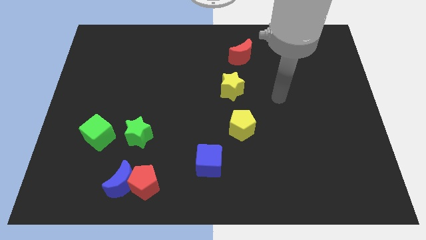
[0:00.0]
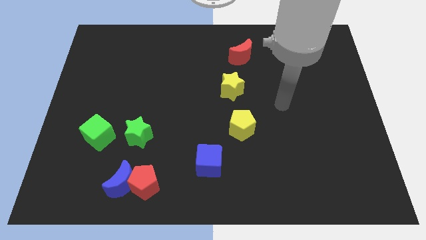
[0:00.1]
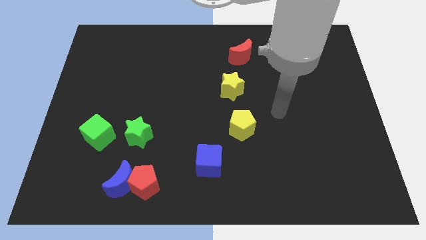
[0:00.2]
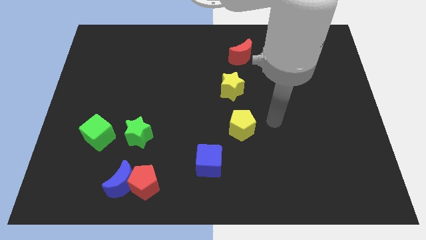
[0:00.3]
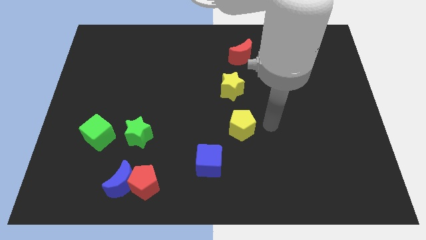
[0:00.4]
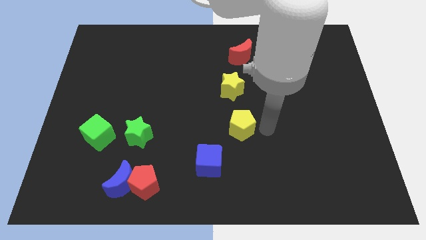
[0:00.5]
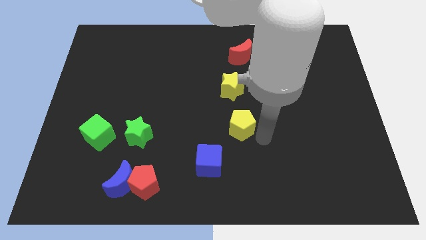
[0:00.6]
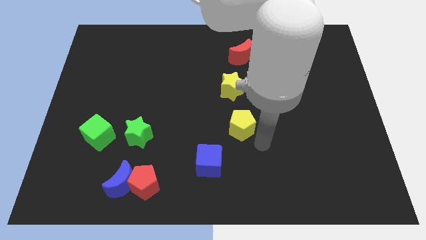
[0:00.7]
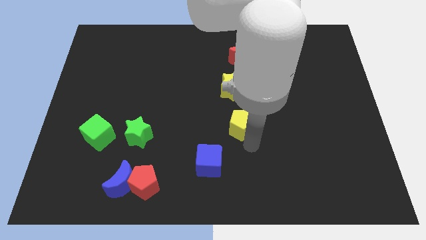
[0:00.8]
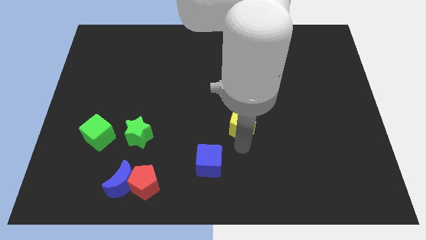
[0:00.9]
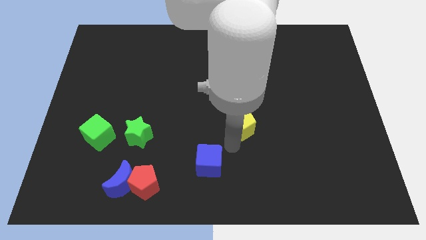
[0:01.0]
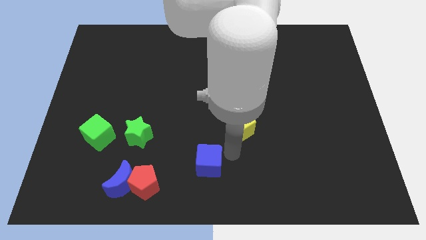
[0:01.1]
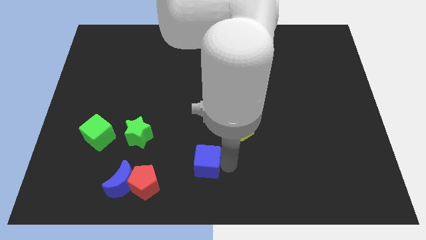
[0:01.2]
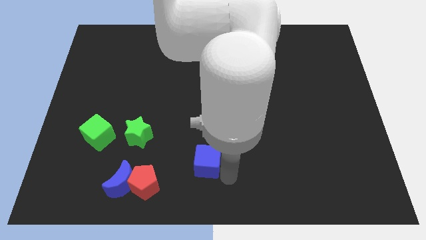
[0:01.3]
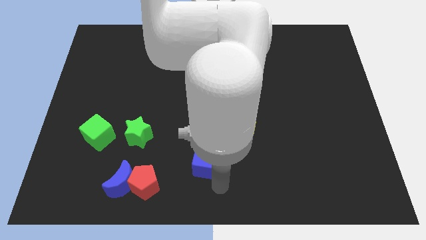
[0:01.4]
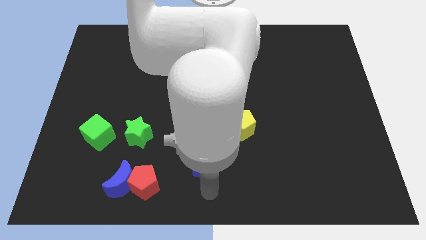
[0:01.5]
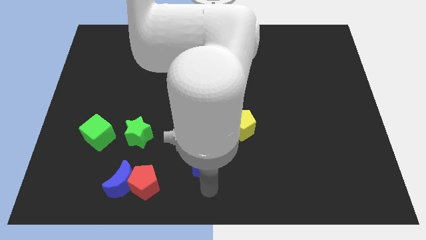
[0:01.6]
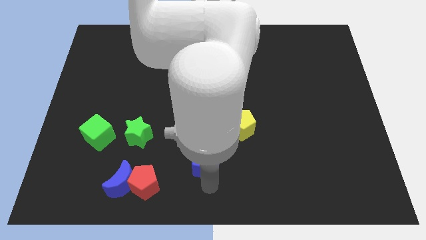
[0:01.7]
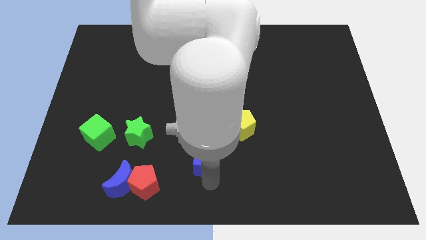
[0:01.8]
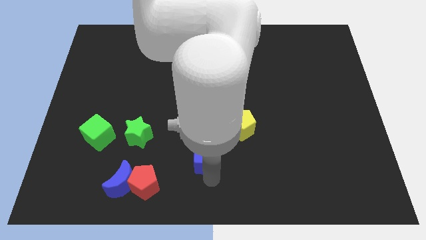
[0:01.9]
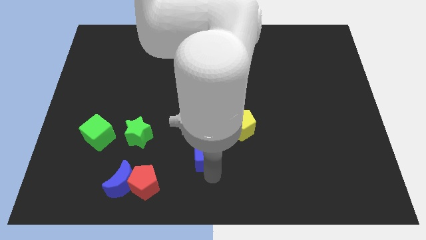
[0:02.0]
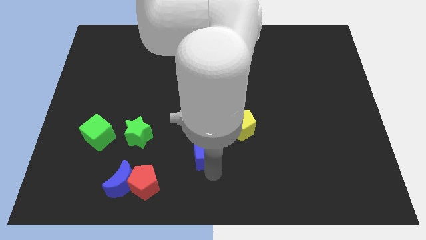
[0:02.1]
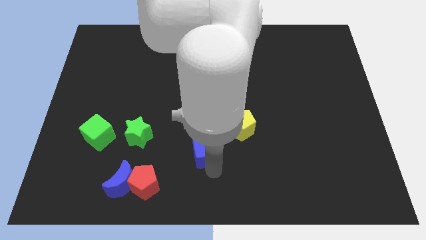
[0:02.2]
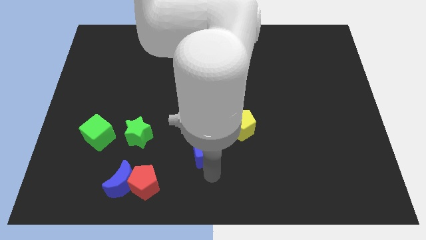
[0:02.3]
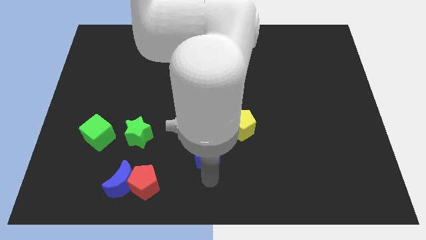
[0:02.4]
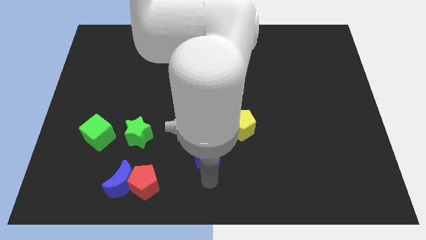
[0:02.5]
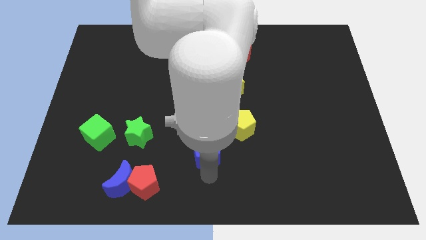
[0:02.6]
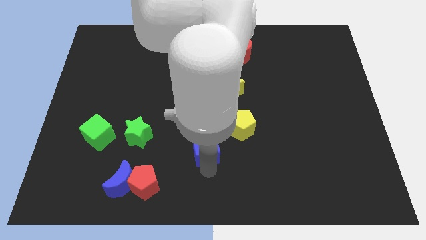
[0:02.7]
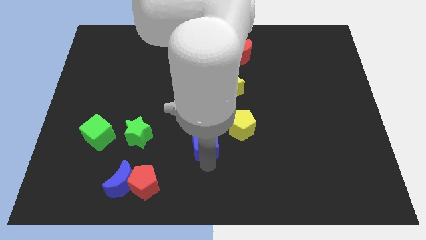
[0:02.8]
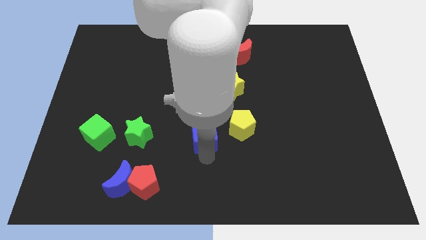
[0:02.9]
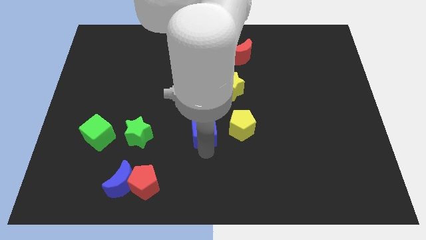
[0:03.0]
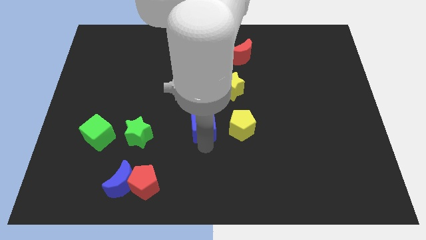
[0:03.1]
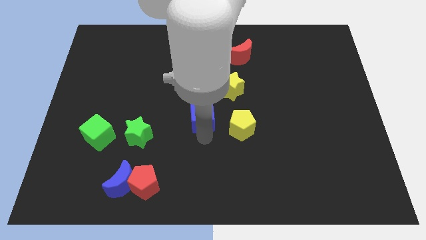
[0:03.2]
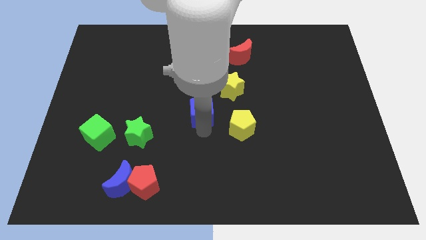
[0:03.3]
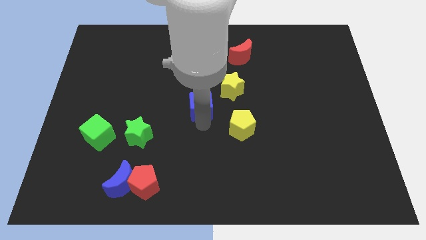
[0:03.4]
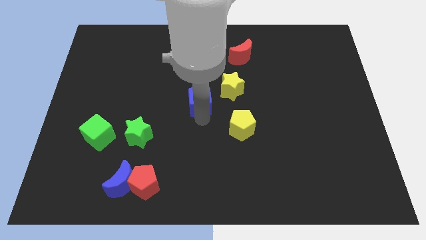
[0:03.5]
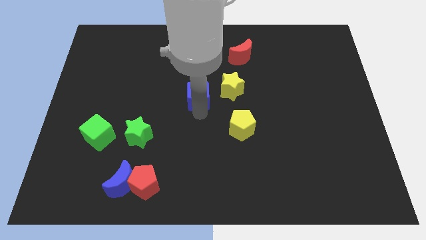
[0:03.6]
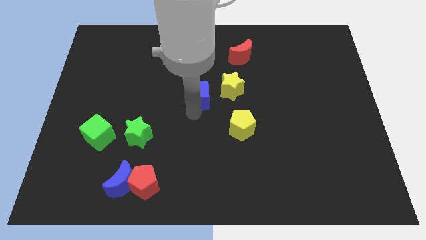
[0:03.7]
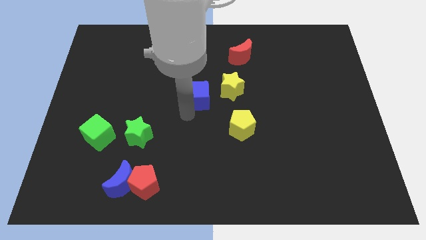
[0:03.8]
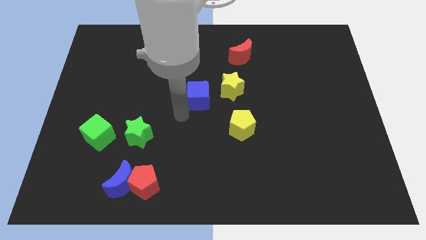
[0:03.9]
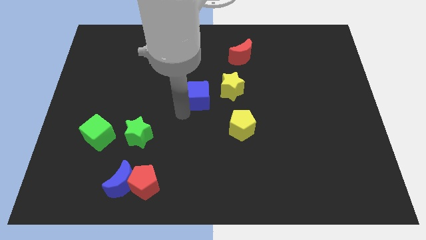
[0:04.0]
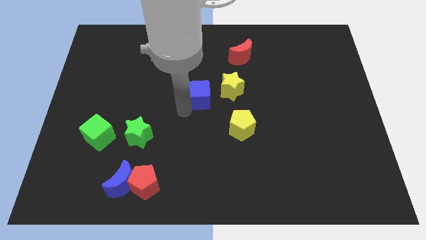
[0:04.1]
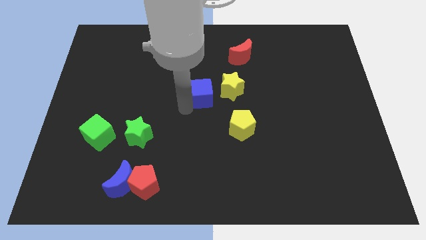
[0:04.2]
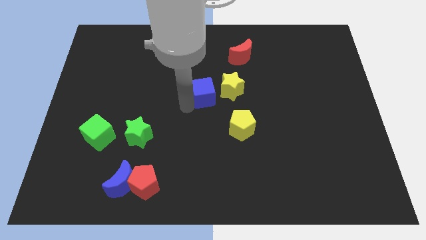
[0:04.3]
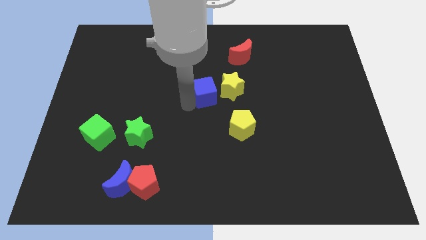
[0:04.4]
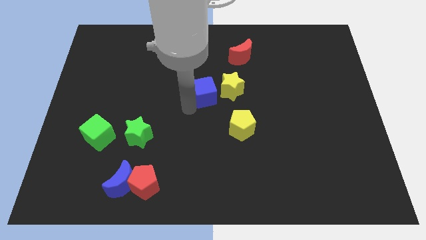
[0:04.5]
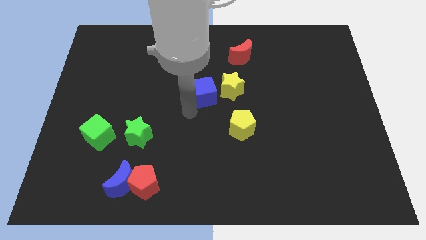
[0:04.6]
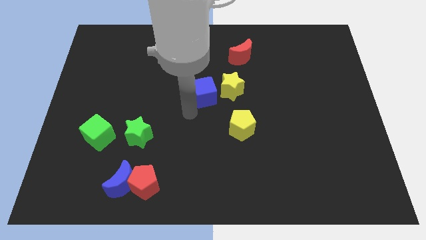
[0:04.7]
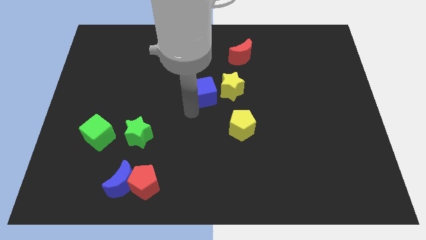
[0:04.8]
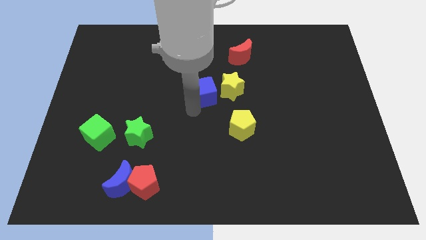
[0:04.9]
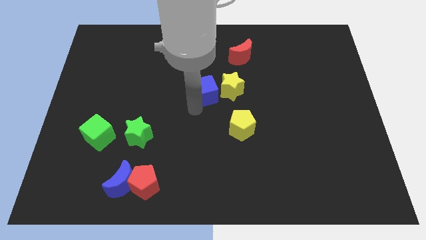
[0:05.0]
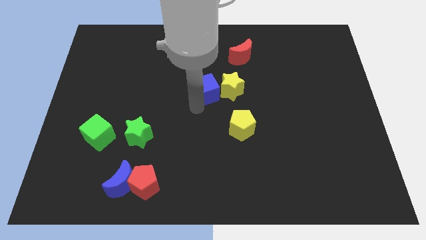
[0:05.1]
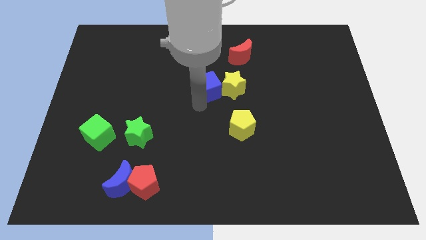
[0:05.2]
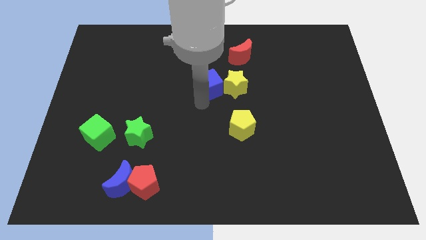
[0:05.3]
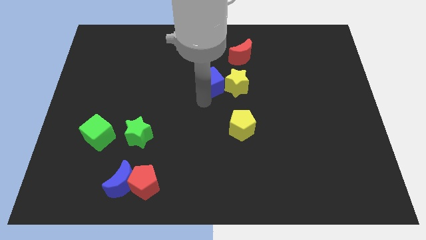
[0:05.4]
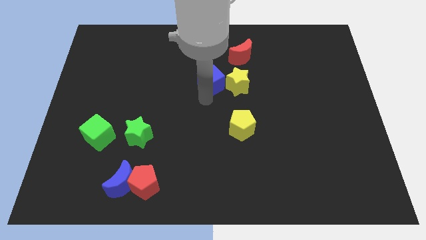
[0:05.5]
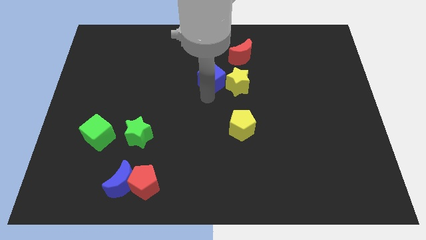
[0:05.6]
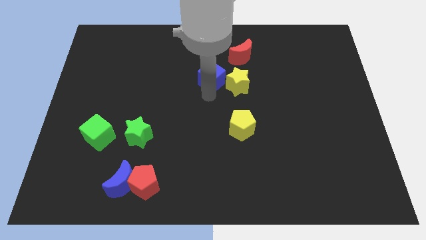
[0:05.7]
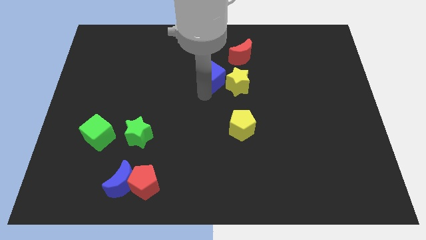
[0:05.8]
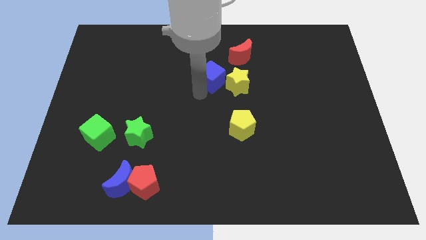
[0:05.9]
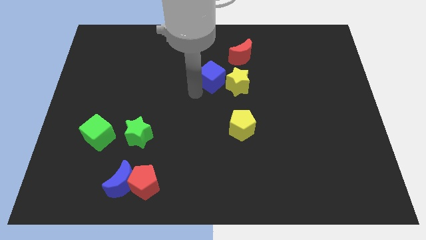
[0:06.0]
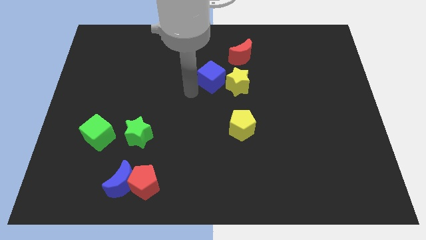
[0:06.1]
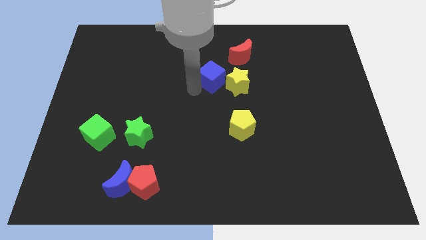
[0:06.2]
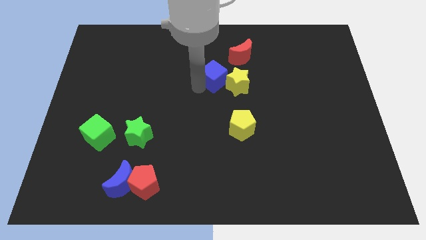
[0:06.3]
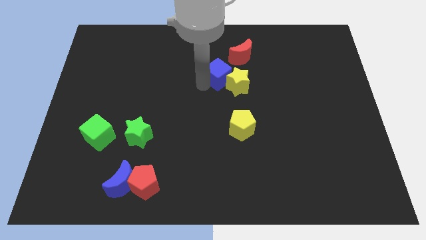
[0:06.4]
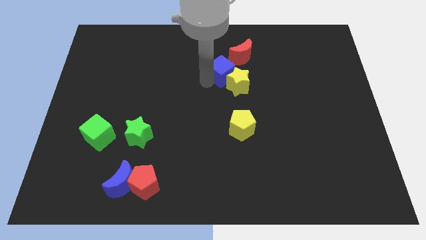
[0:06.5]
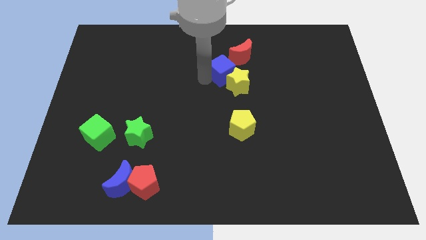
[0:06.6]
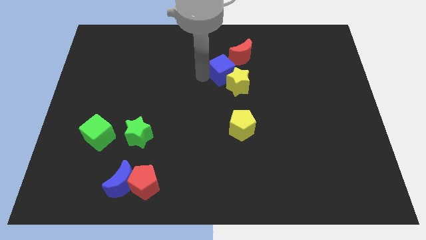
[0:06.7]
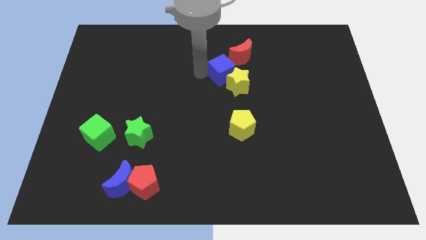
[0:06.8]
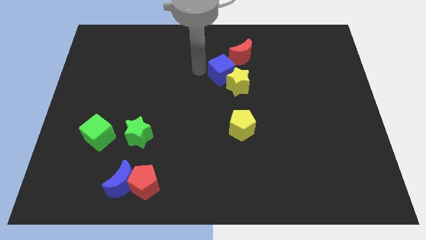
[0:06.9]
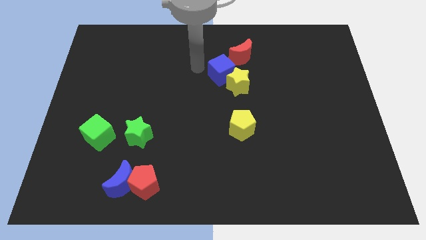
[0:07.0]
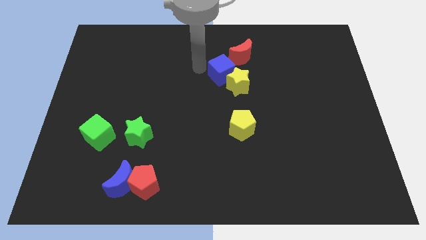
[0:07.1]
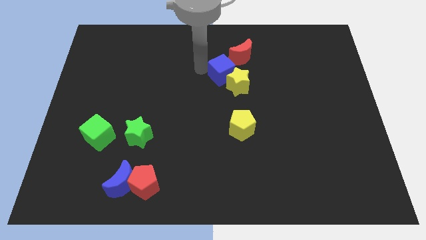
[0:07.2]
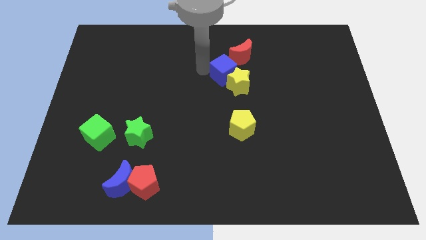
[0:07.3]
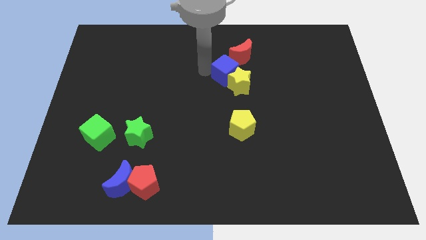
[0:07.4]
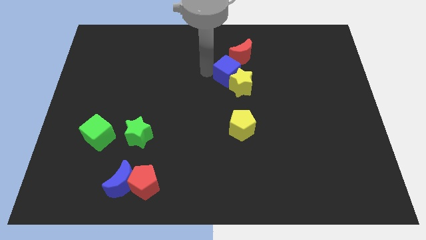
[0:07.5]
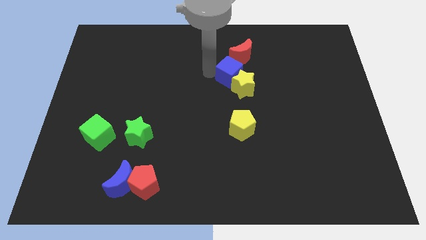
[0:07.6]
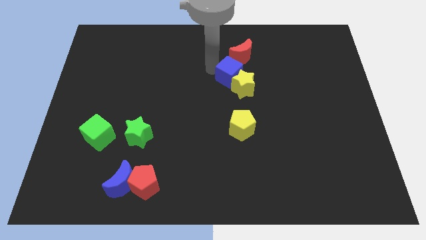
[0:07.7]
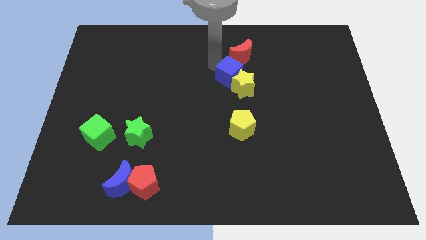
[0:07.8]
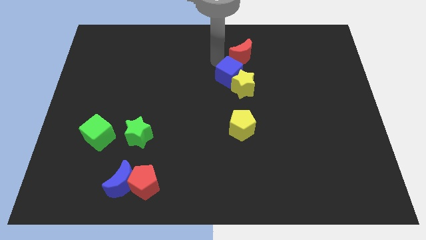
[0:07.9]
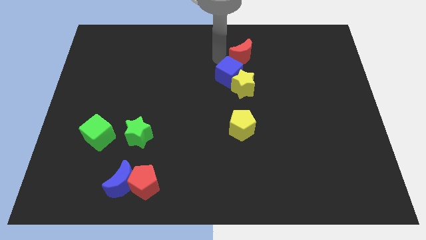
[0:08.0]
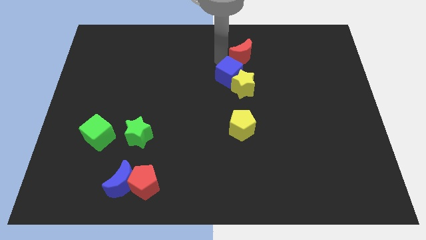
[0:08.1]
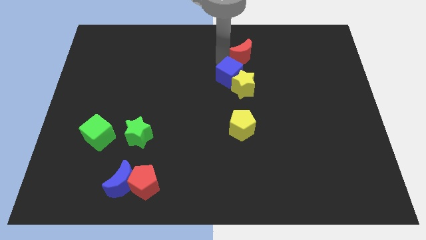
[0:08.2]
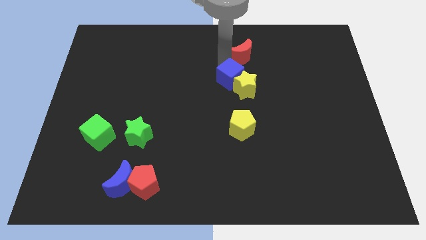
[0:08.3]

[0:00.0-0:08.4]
push the blue cube to the top side of the yellow pentagon
